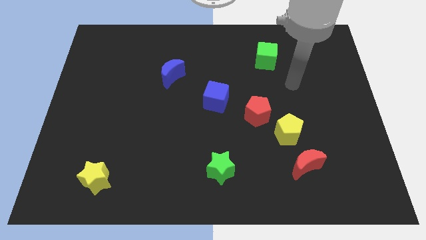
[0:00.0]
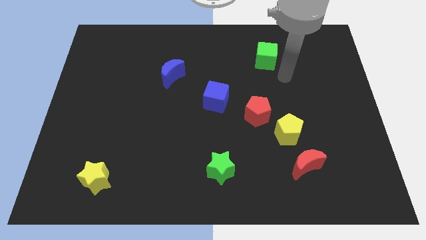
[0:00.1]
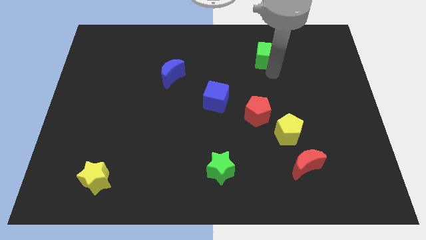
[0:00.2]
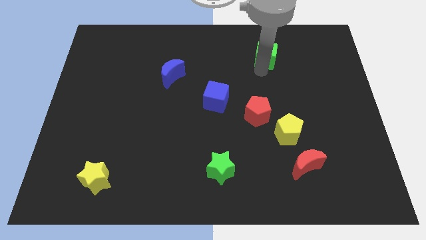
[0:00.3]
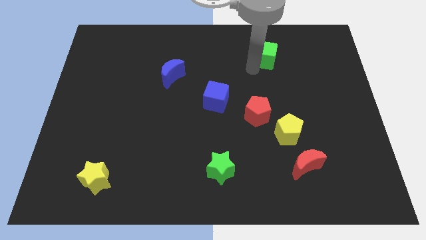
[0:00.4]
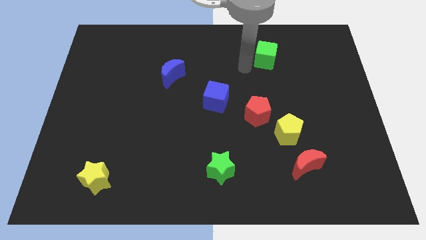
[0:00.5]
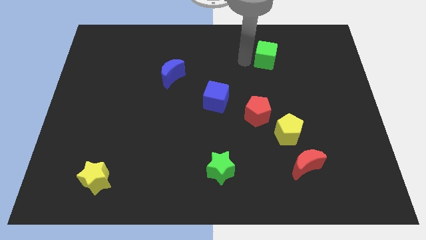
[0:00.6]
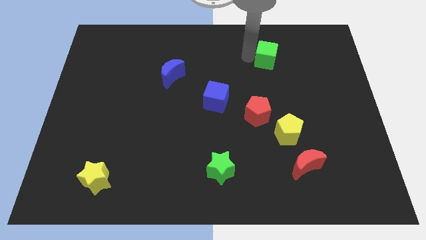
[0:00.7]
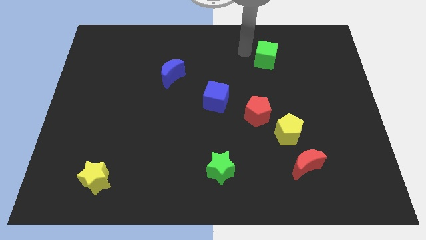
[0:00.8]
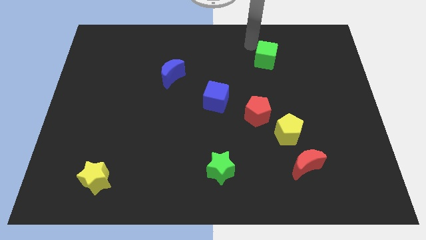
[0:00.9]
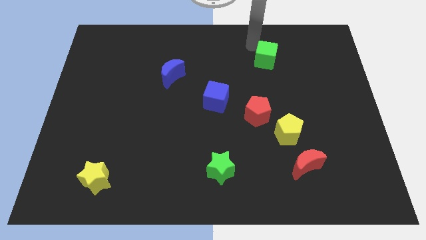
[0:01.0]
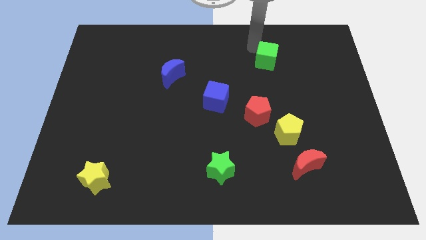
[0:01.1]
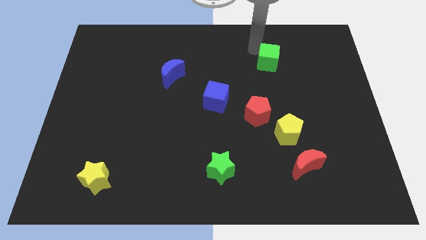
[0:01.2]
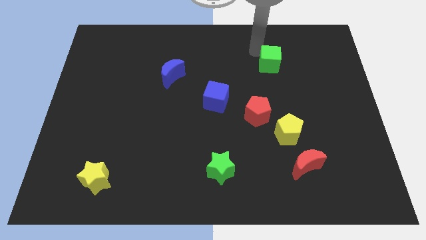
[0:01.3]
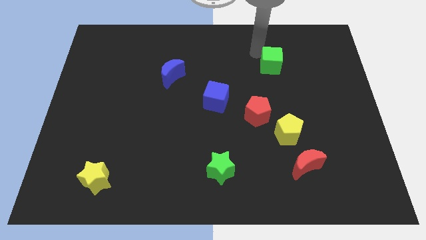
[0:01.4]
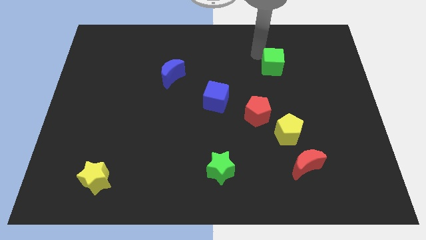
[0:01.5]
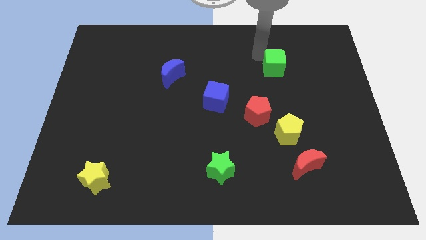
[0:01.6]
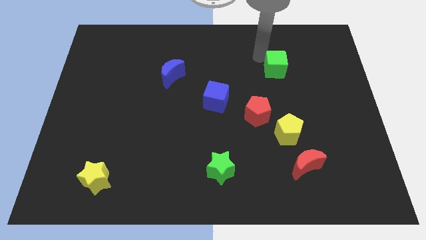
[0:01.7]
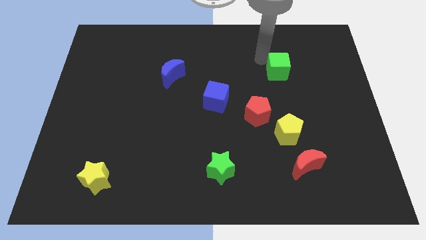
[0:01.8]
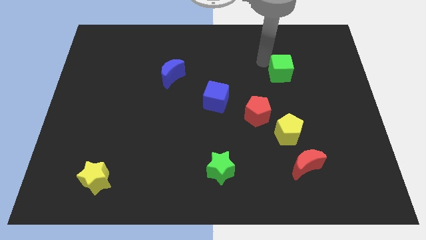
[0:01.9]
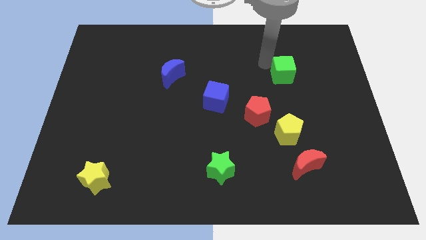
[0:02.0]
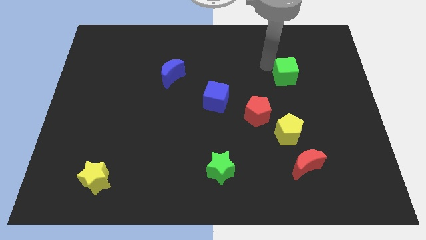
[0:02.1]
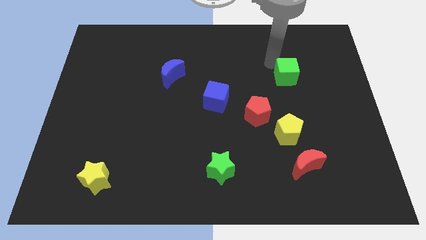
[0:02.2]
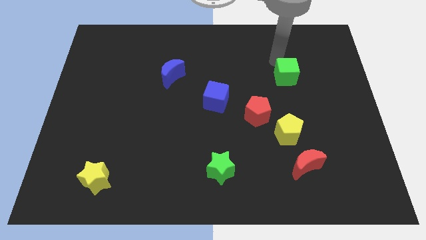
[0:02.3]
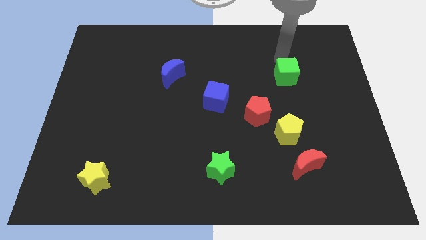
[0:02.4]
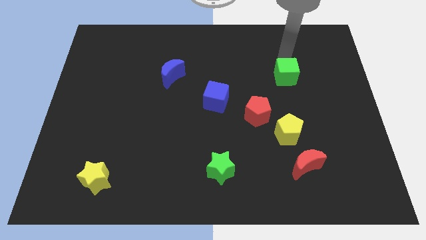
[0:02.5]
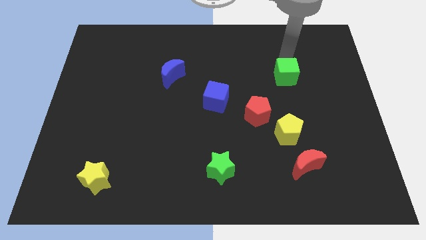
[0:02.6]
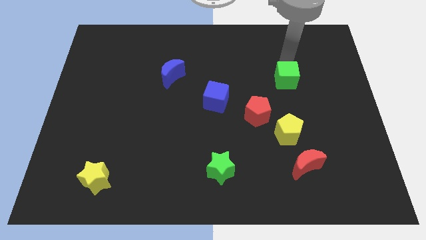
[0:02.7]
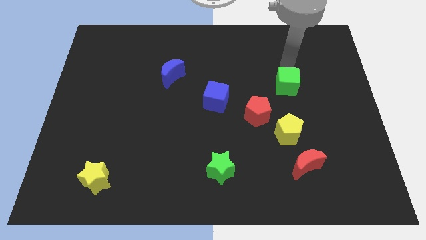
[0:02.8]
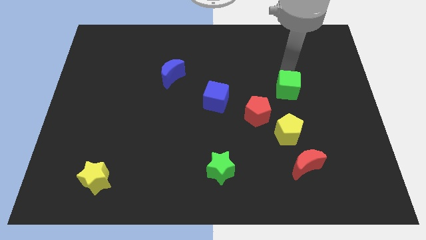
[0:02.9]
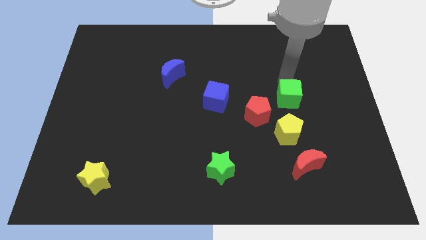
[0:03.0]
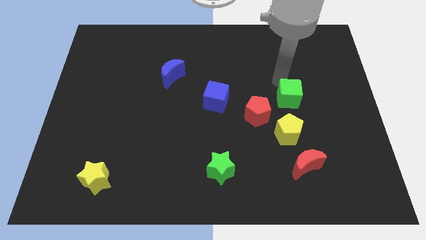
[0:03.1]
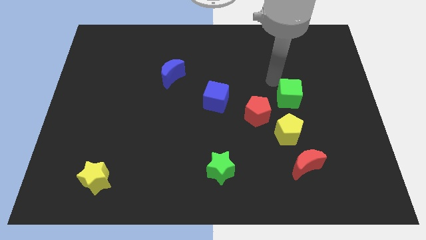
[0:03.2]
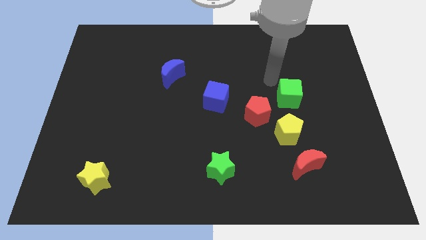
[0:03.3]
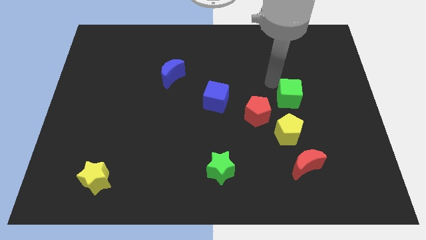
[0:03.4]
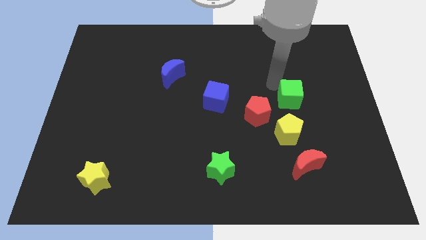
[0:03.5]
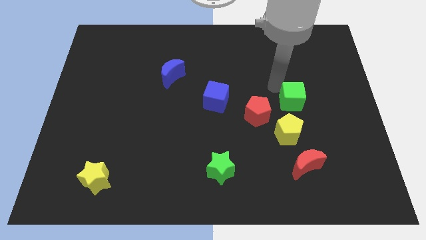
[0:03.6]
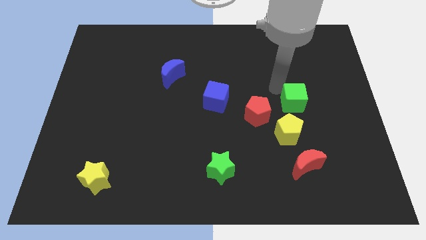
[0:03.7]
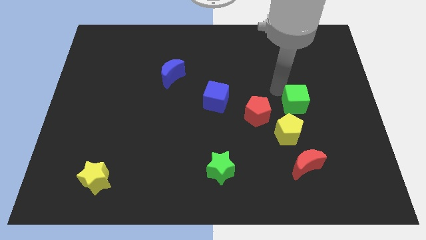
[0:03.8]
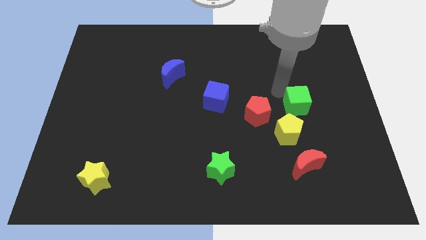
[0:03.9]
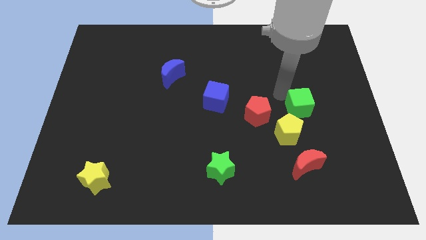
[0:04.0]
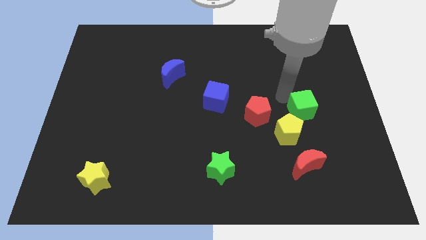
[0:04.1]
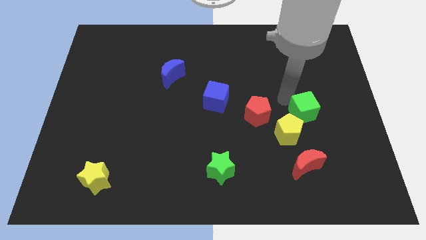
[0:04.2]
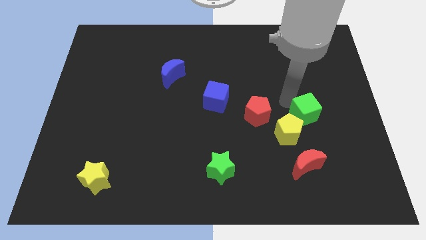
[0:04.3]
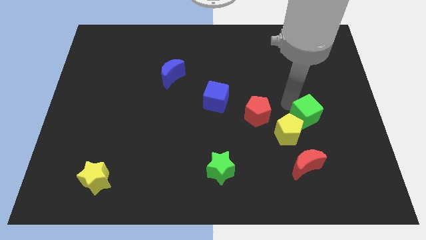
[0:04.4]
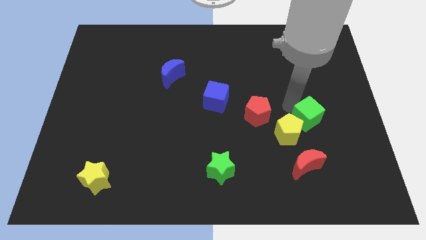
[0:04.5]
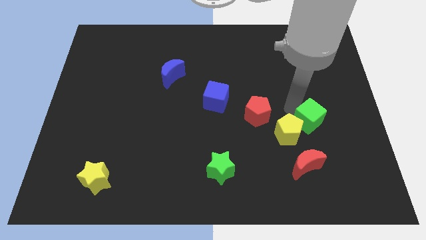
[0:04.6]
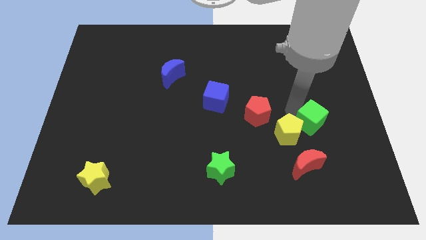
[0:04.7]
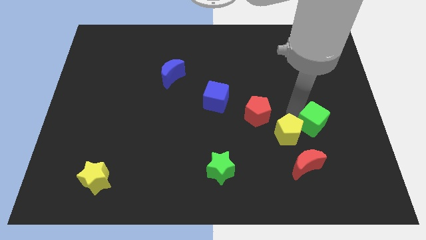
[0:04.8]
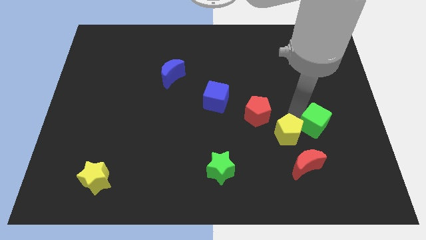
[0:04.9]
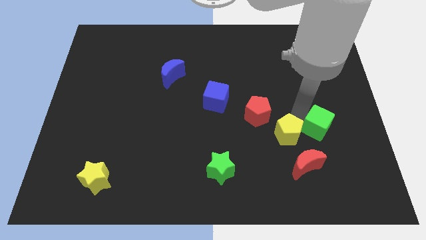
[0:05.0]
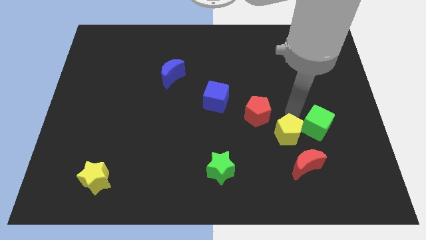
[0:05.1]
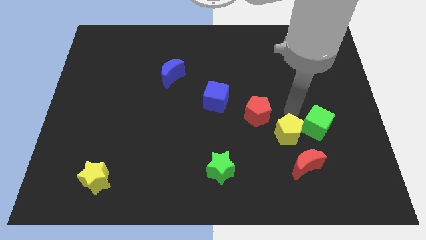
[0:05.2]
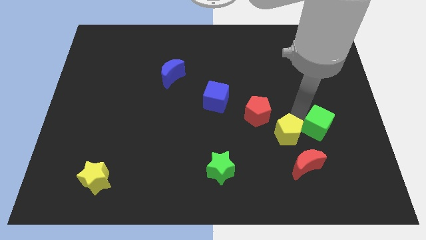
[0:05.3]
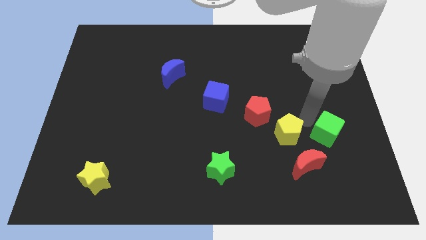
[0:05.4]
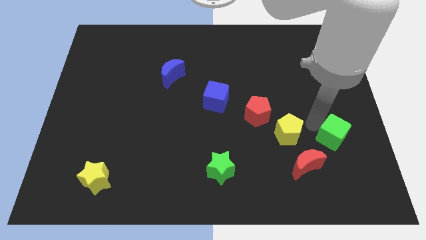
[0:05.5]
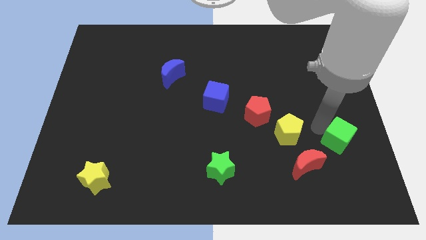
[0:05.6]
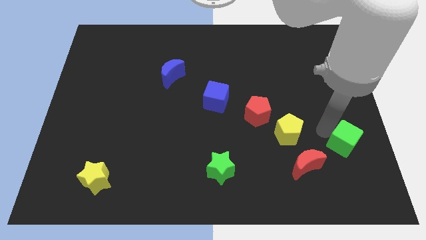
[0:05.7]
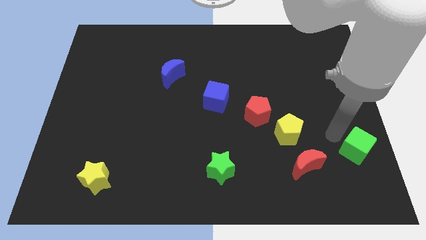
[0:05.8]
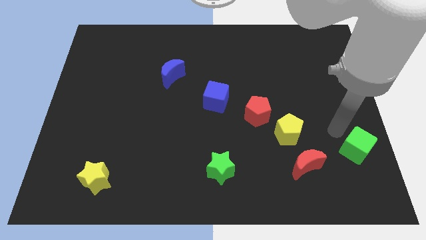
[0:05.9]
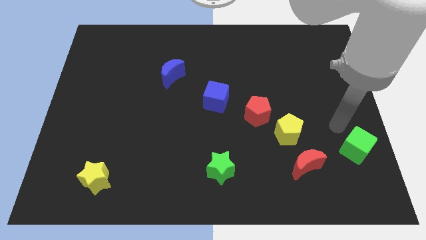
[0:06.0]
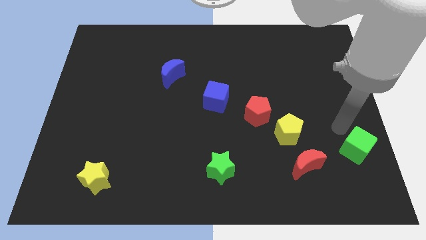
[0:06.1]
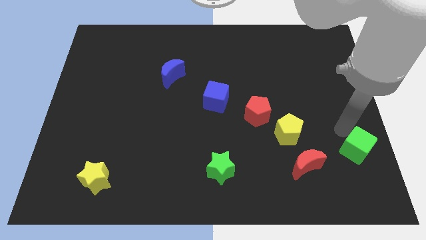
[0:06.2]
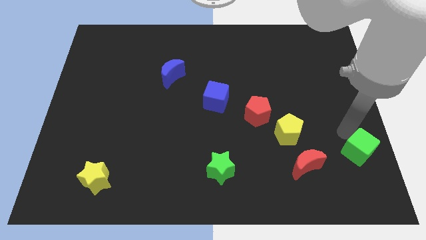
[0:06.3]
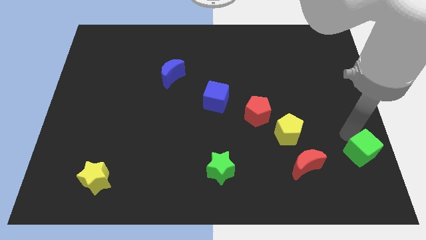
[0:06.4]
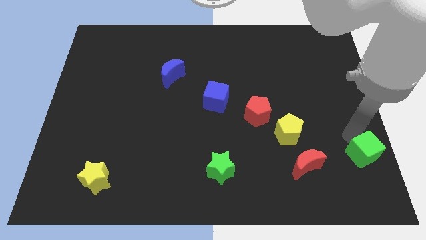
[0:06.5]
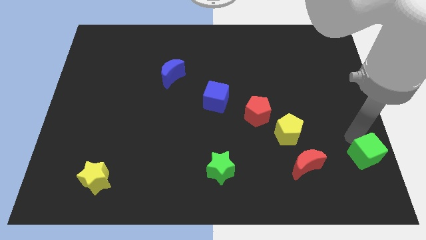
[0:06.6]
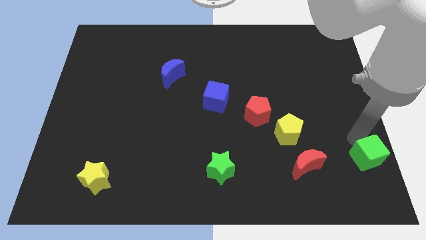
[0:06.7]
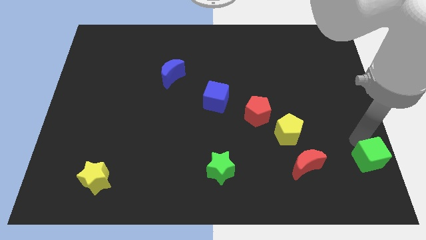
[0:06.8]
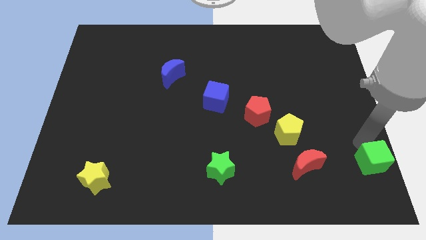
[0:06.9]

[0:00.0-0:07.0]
move the green cube to the lower right corner
